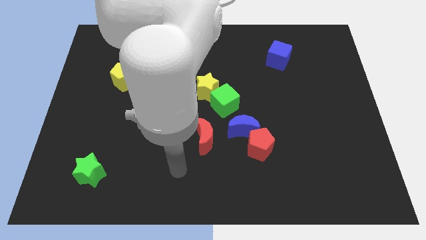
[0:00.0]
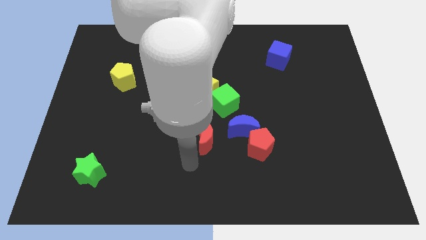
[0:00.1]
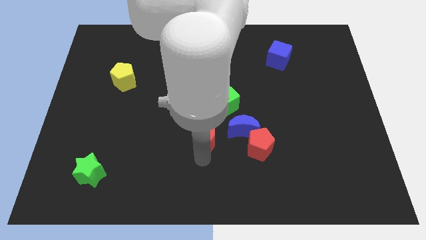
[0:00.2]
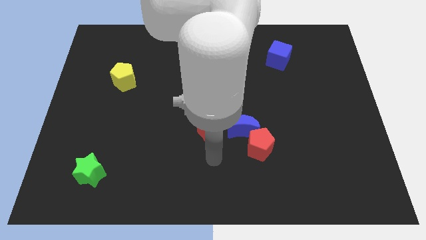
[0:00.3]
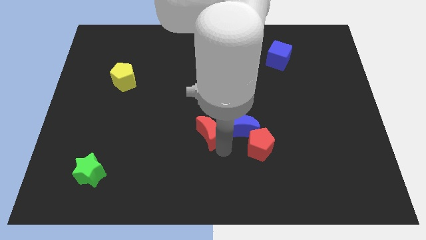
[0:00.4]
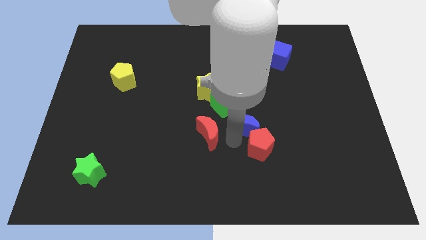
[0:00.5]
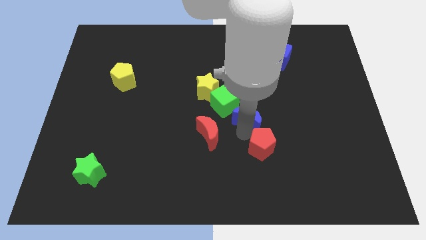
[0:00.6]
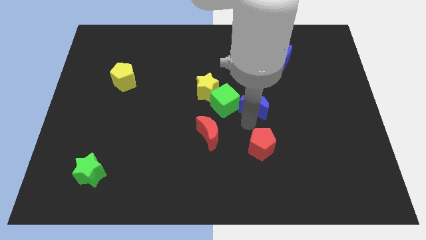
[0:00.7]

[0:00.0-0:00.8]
separate the red pentagon from the blue moon

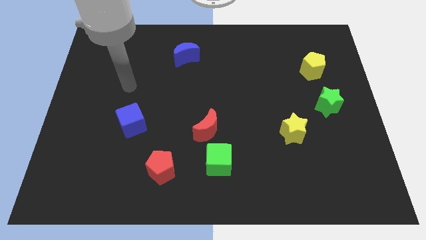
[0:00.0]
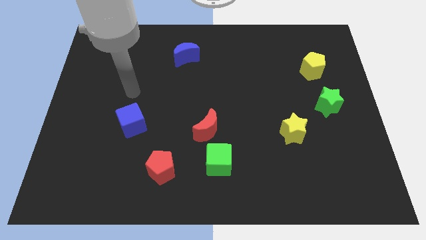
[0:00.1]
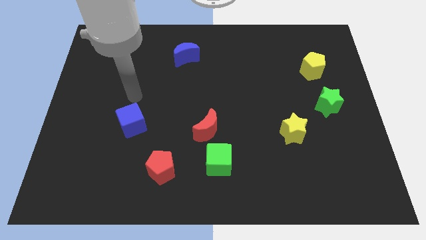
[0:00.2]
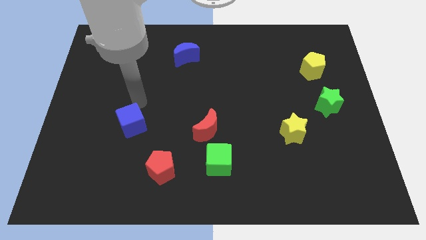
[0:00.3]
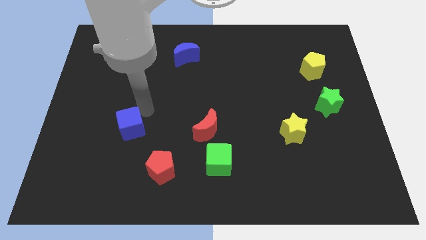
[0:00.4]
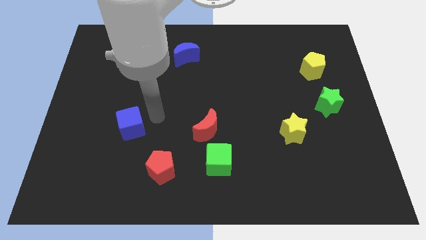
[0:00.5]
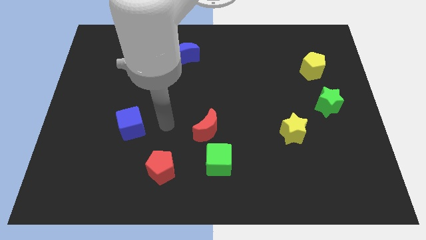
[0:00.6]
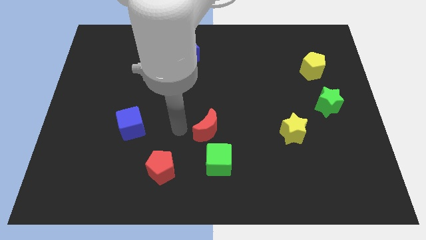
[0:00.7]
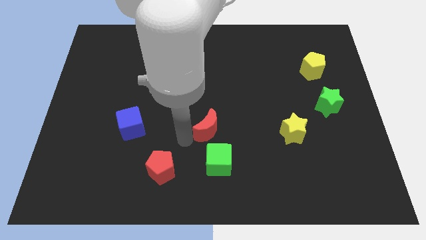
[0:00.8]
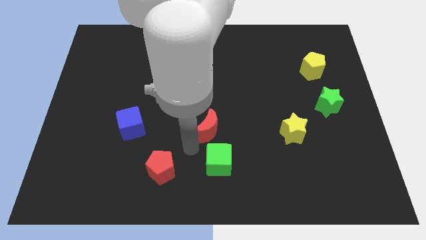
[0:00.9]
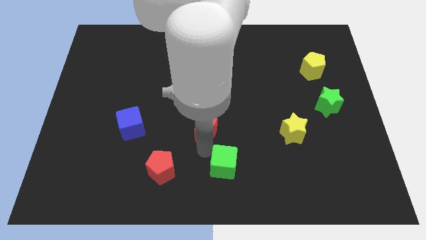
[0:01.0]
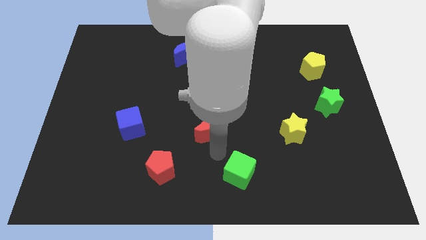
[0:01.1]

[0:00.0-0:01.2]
separate the red moon from the green cube

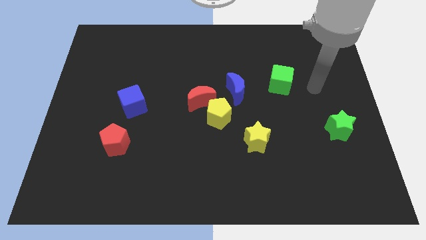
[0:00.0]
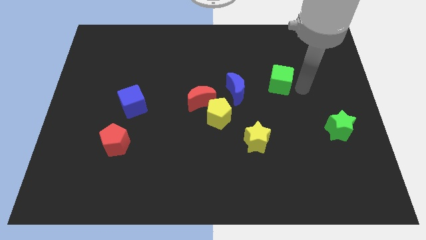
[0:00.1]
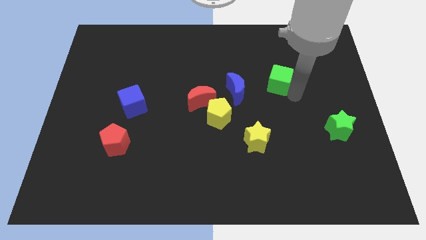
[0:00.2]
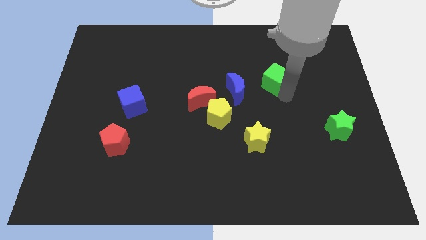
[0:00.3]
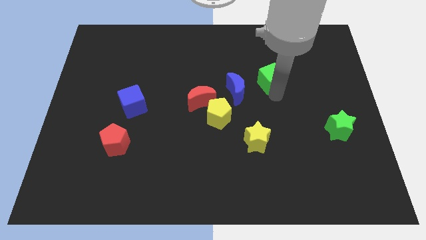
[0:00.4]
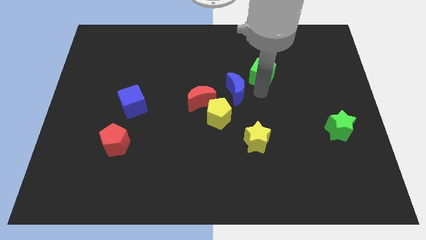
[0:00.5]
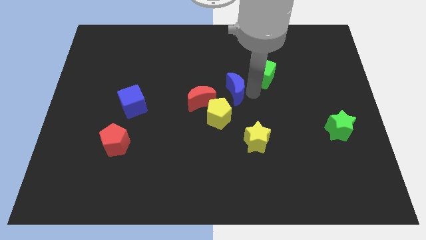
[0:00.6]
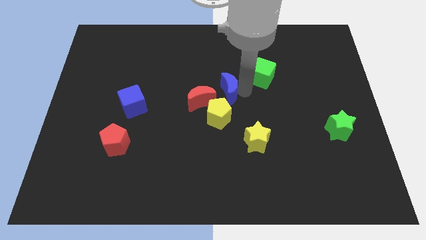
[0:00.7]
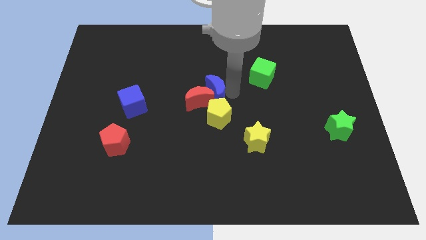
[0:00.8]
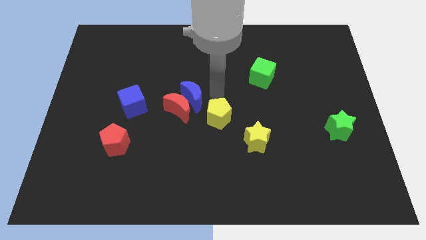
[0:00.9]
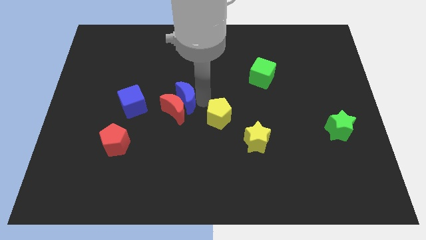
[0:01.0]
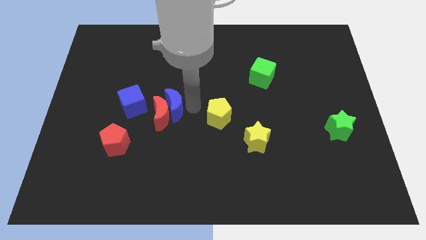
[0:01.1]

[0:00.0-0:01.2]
pull the yellow pentagon apart from the red moon and blue moon

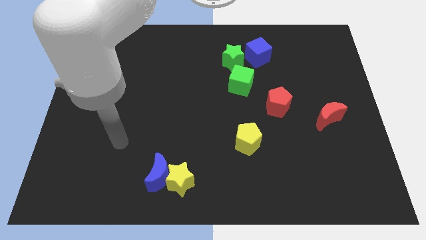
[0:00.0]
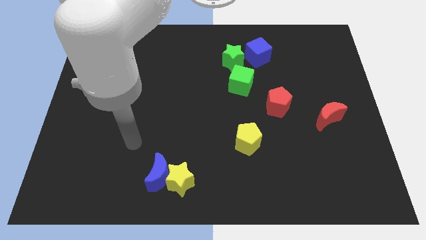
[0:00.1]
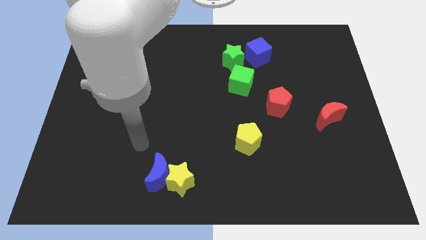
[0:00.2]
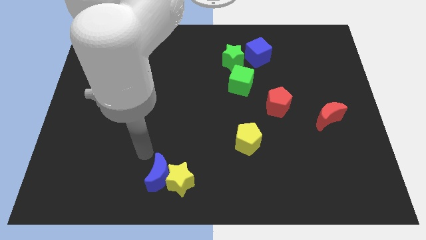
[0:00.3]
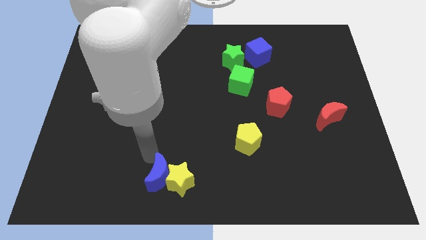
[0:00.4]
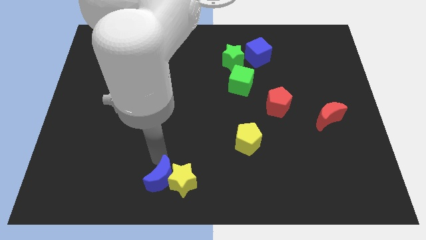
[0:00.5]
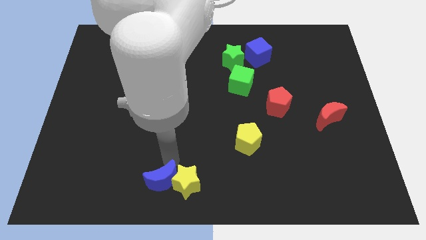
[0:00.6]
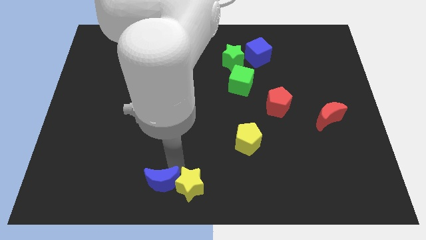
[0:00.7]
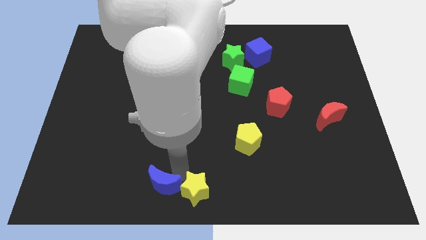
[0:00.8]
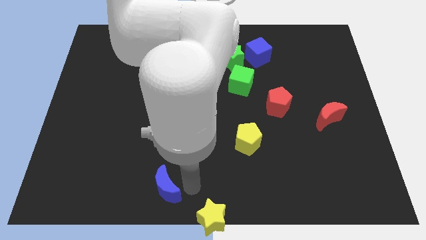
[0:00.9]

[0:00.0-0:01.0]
pull the blue moon apart from the yellow star

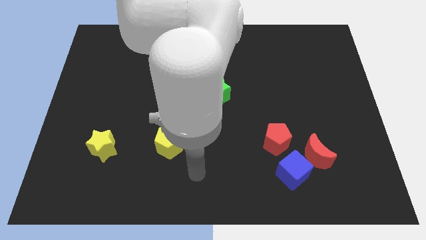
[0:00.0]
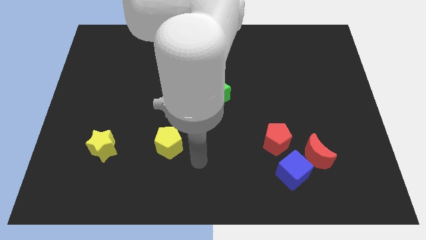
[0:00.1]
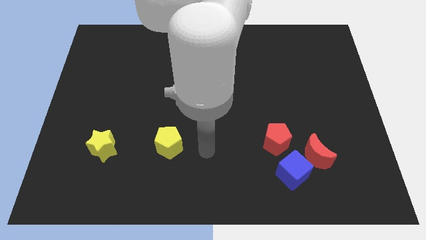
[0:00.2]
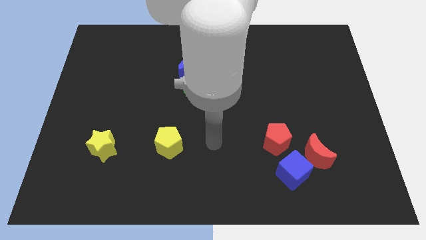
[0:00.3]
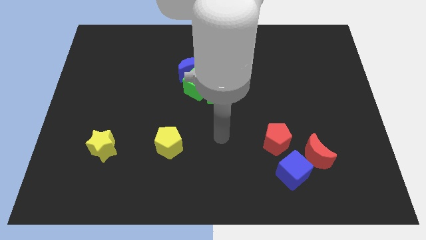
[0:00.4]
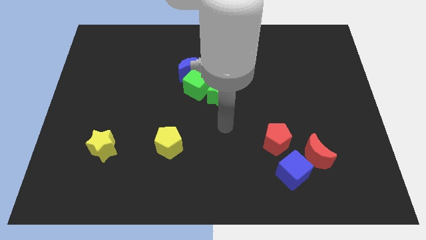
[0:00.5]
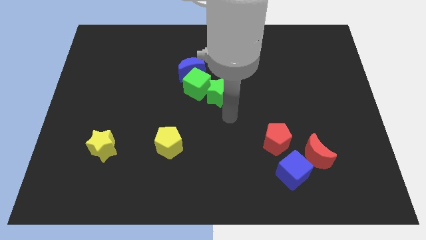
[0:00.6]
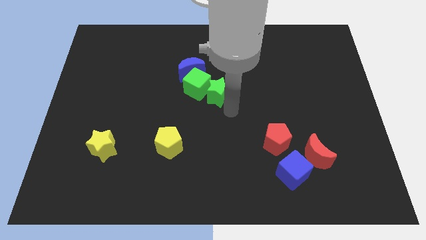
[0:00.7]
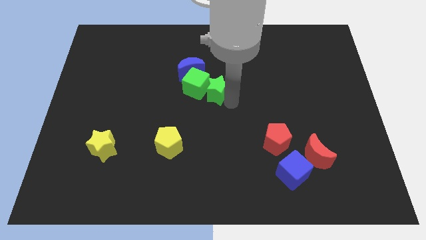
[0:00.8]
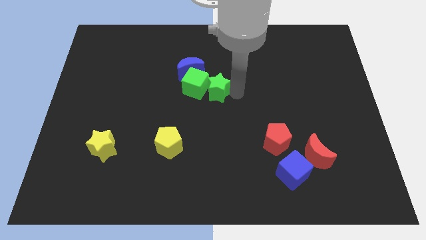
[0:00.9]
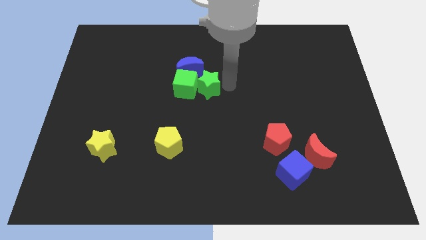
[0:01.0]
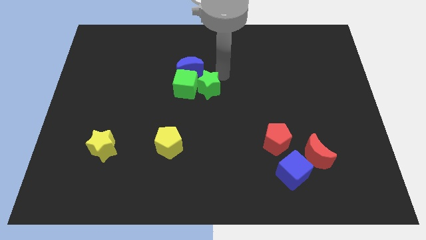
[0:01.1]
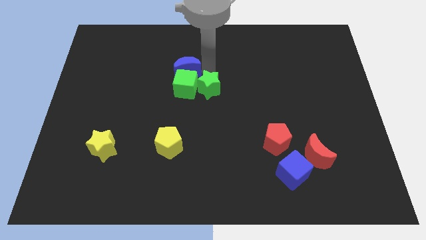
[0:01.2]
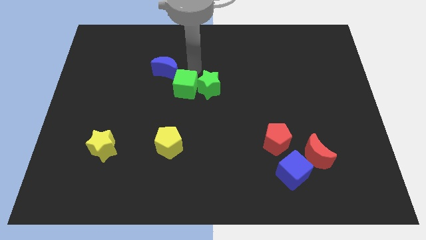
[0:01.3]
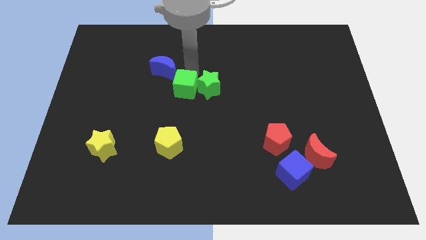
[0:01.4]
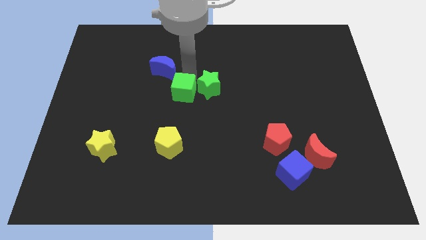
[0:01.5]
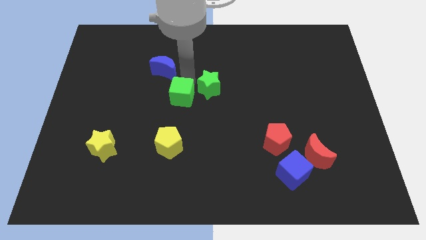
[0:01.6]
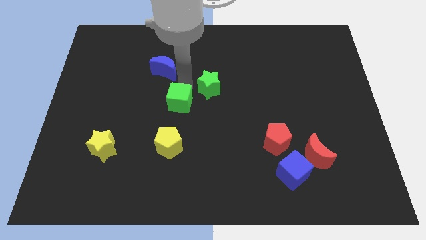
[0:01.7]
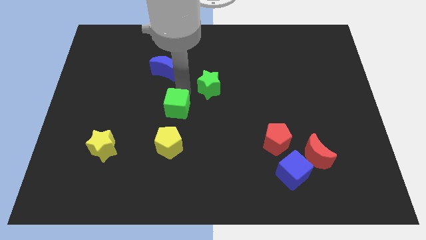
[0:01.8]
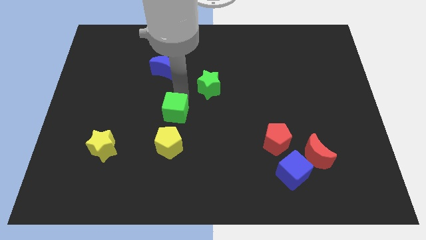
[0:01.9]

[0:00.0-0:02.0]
move the green cube away from the blue moon and green star

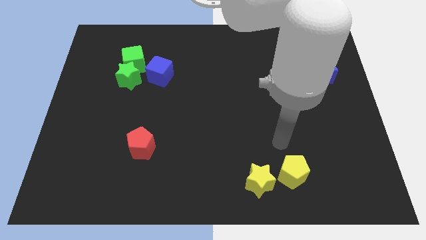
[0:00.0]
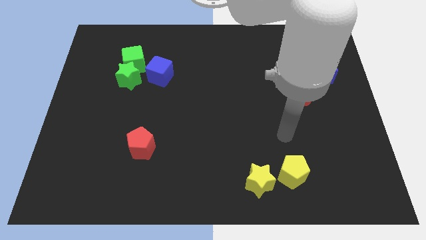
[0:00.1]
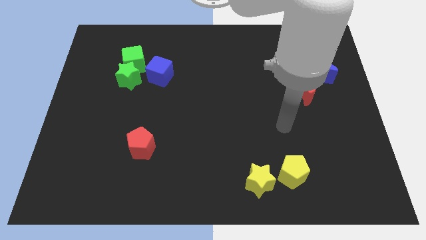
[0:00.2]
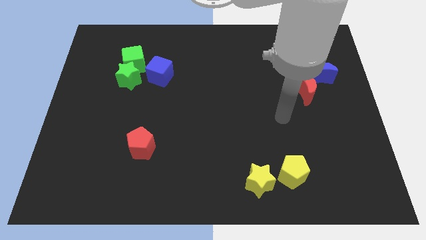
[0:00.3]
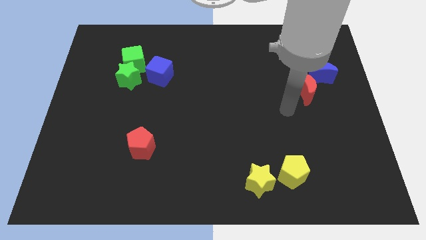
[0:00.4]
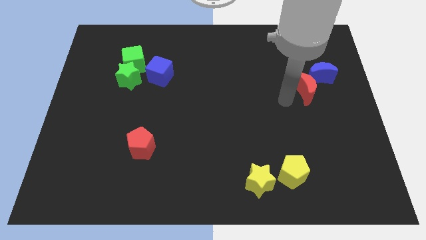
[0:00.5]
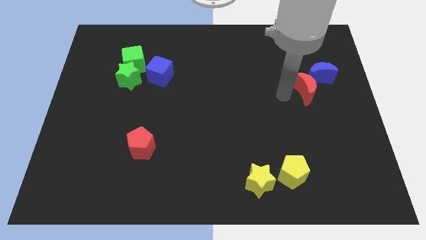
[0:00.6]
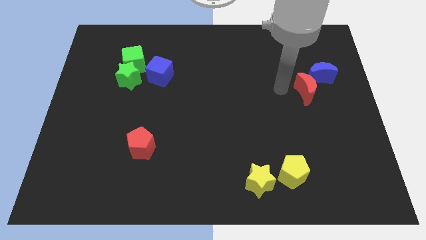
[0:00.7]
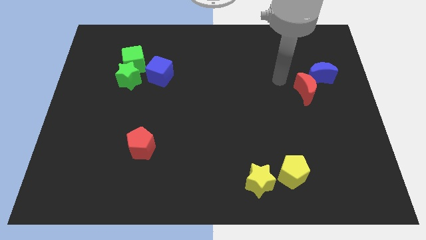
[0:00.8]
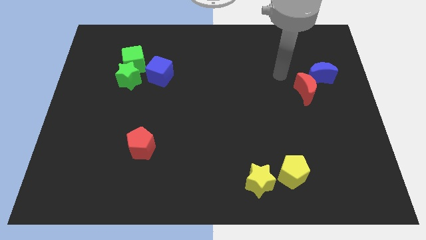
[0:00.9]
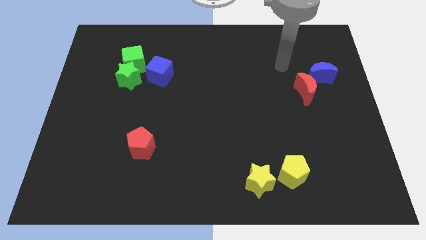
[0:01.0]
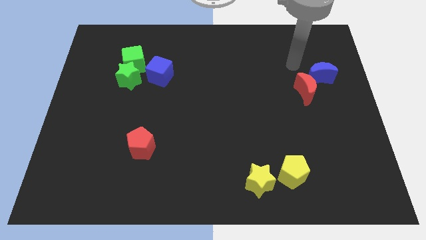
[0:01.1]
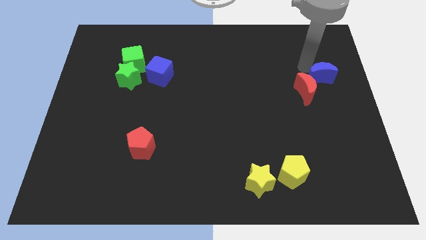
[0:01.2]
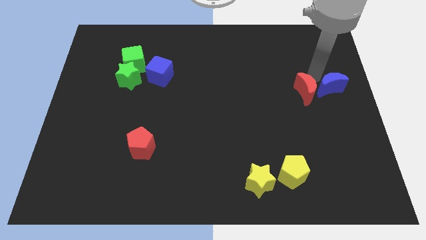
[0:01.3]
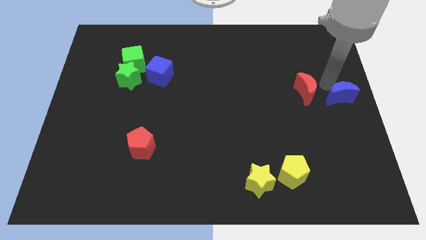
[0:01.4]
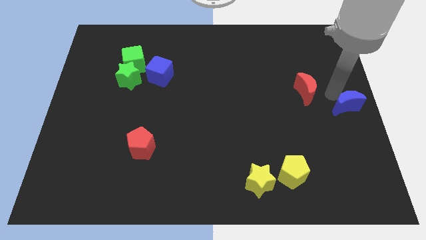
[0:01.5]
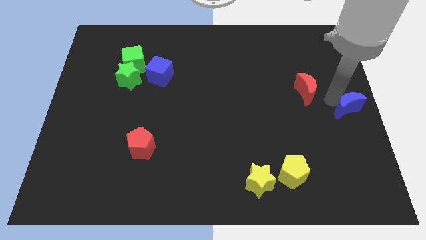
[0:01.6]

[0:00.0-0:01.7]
separate the red moon from the blue moon

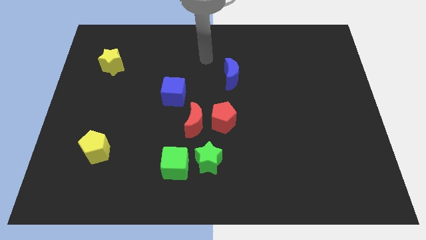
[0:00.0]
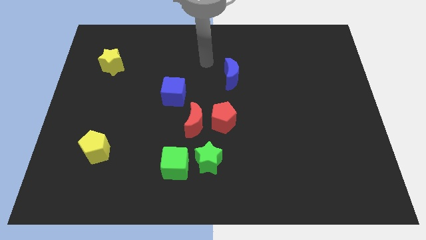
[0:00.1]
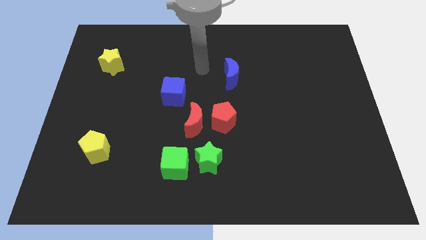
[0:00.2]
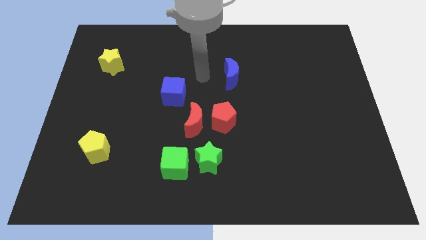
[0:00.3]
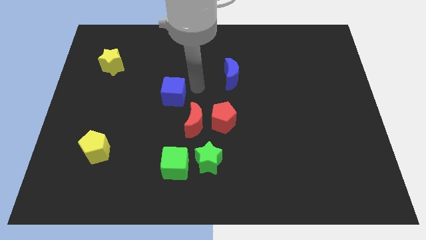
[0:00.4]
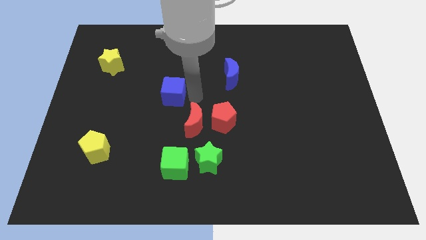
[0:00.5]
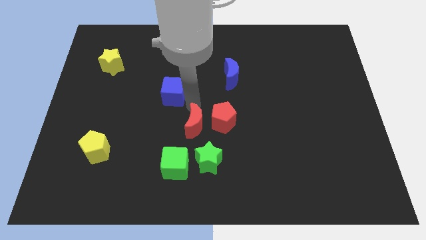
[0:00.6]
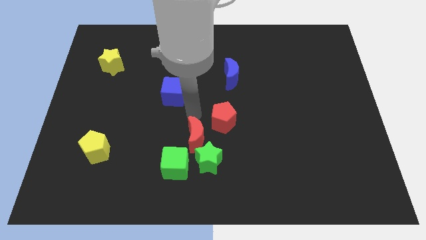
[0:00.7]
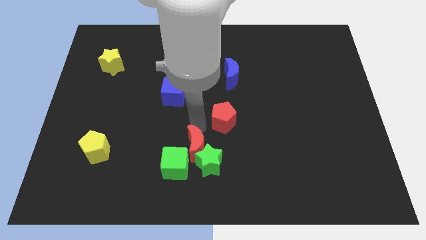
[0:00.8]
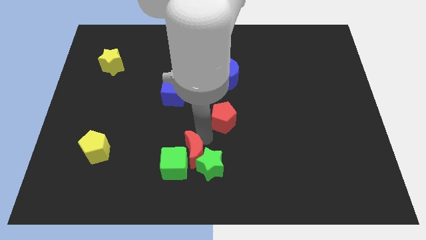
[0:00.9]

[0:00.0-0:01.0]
separate the red pentagon from the red moon

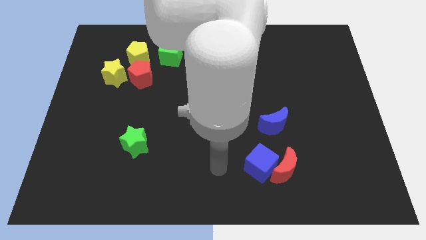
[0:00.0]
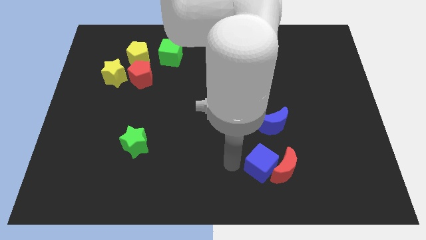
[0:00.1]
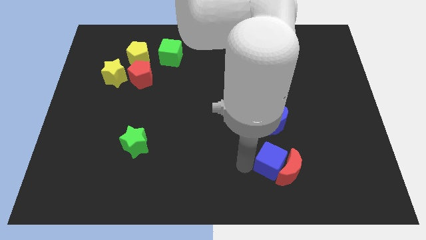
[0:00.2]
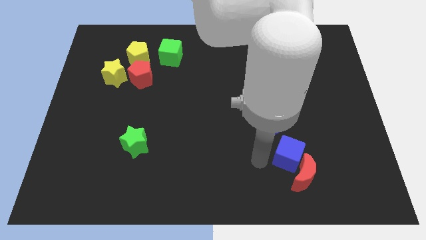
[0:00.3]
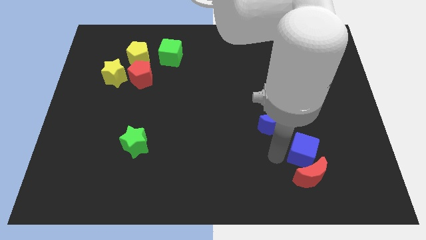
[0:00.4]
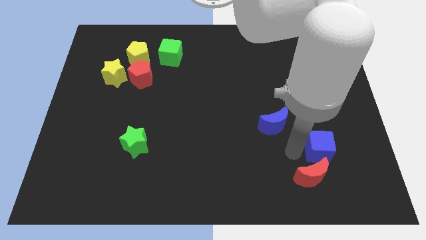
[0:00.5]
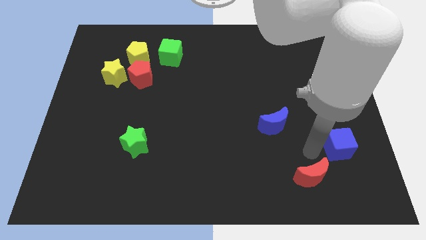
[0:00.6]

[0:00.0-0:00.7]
pull the red moon apart from the blue cube
